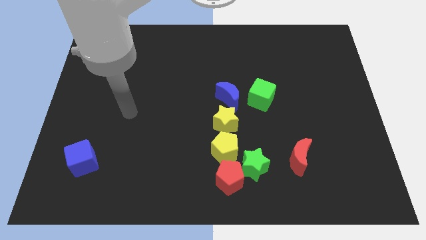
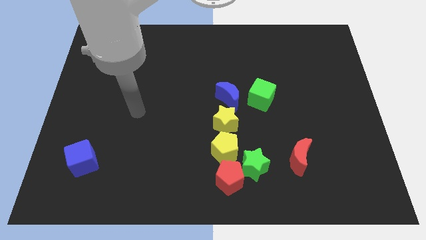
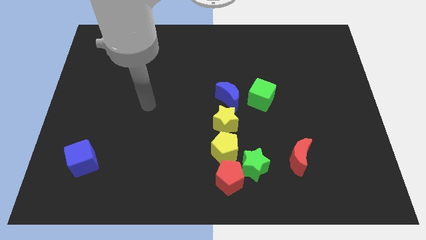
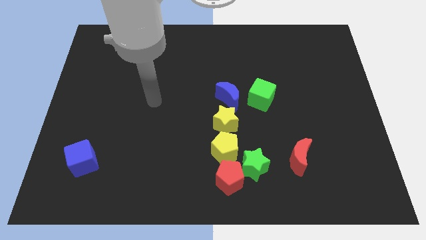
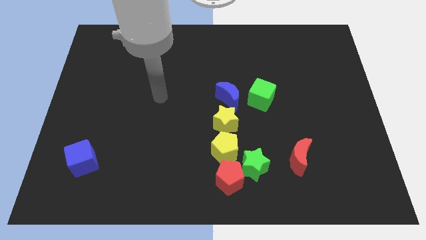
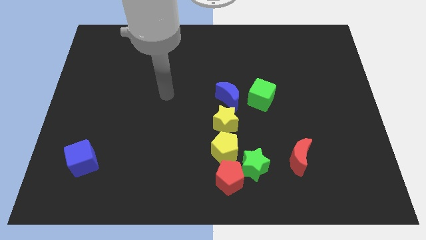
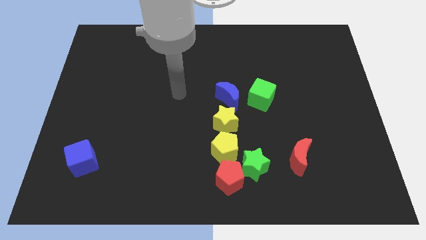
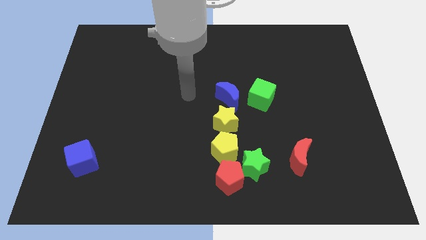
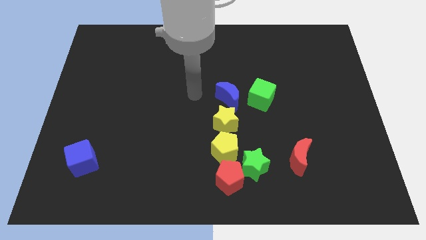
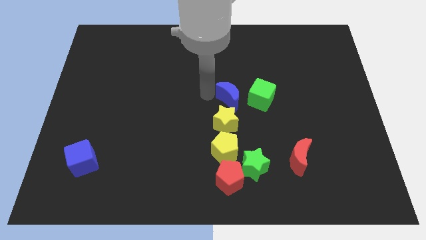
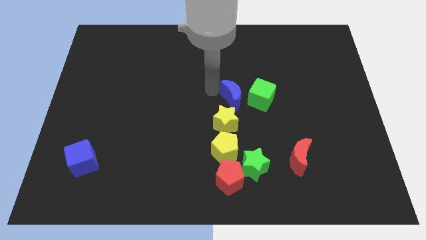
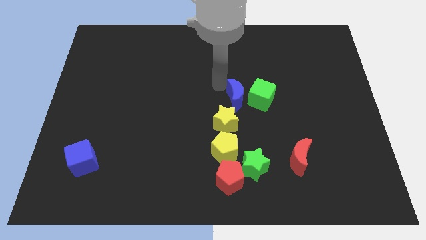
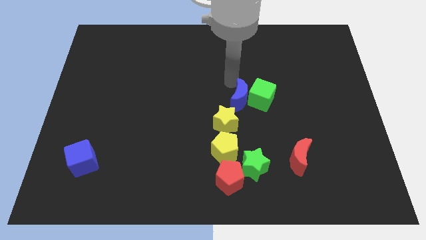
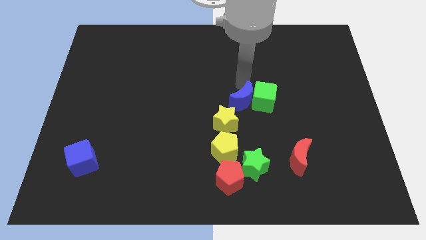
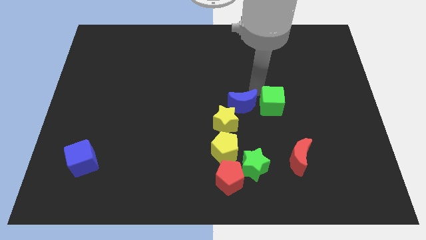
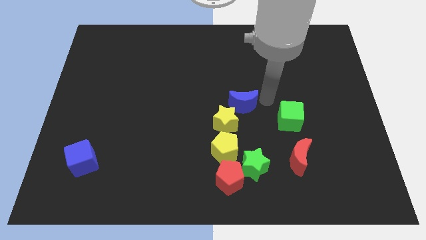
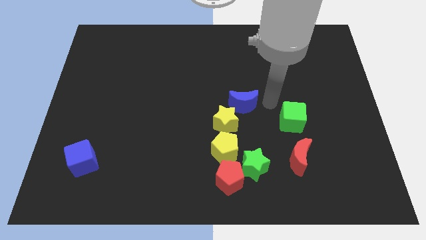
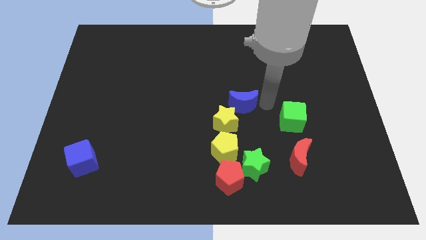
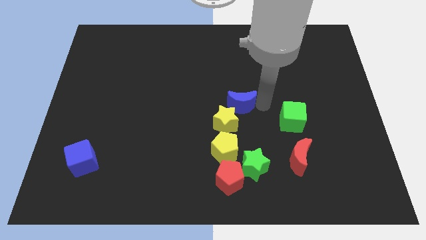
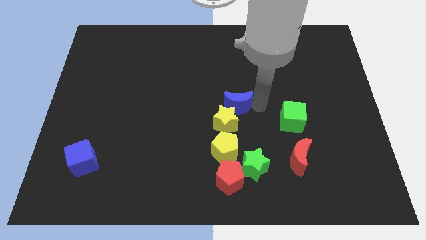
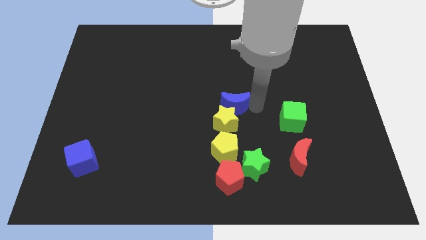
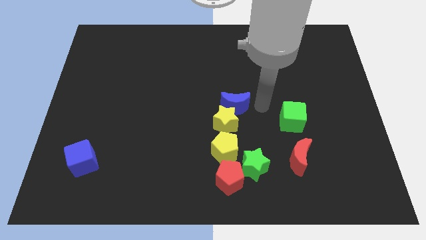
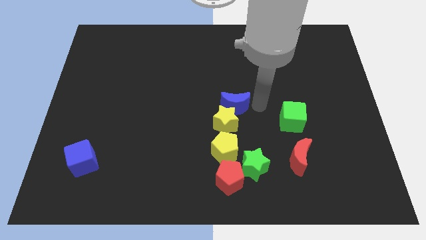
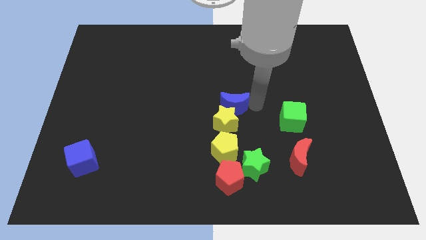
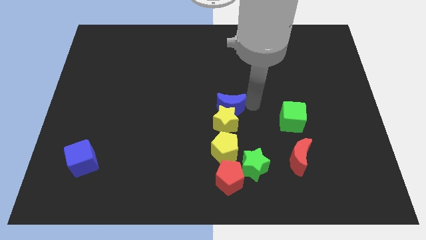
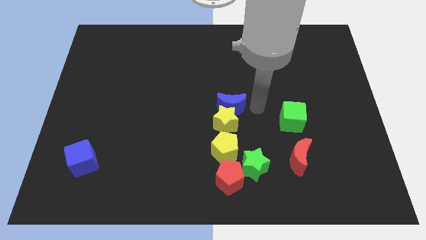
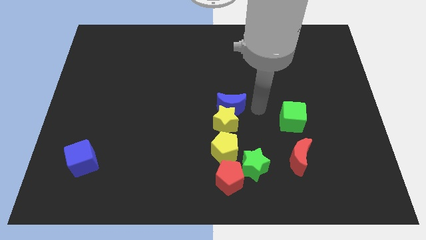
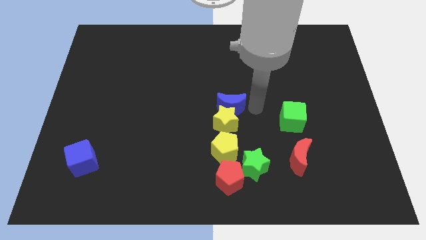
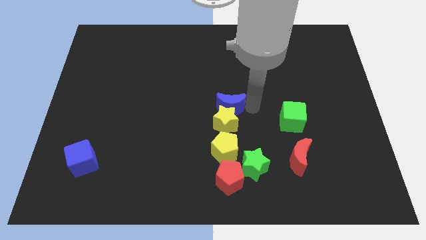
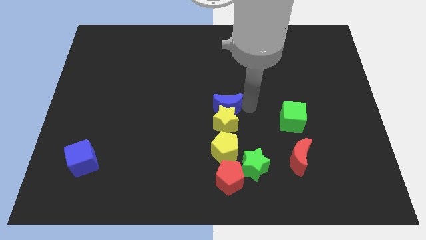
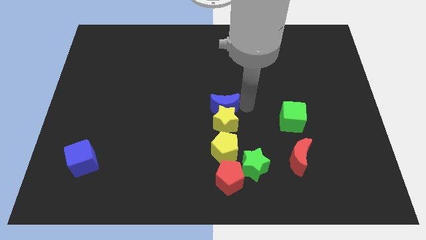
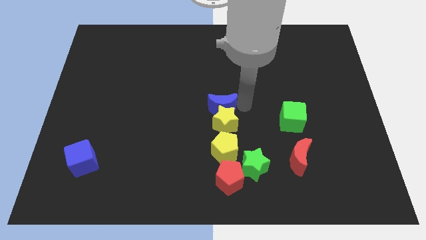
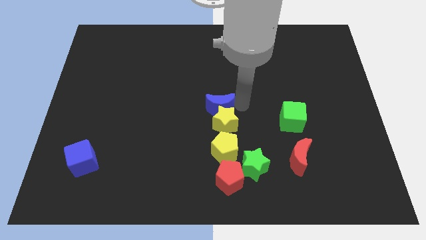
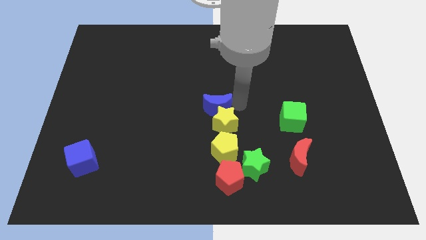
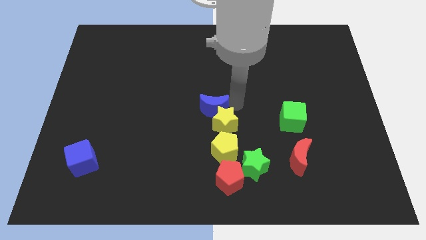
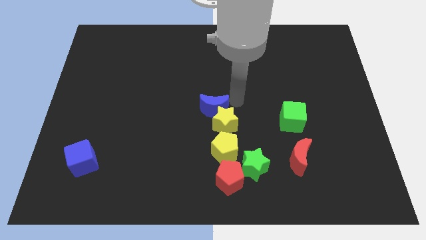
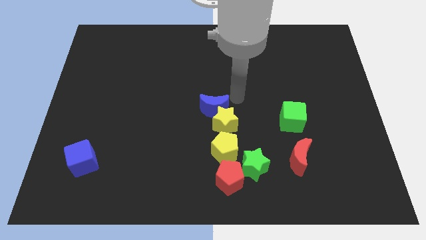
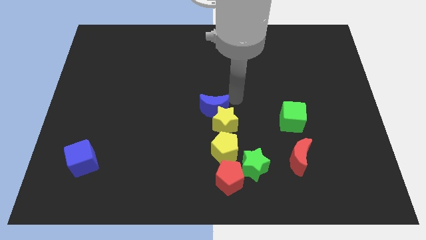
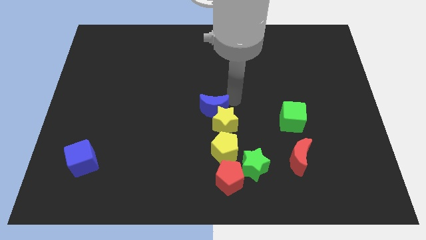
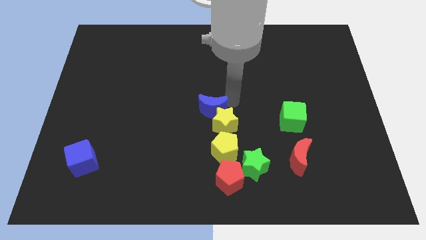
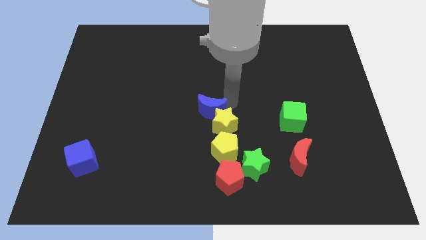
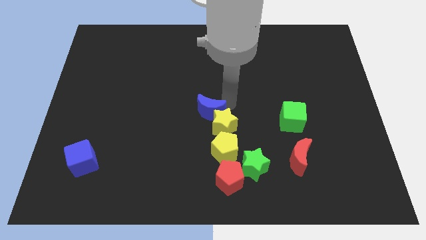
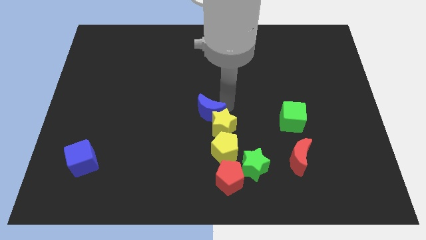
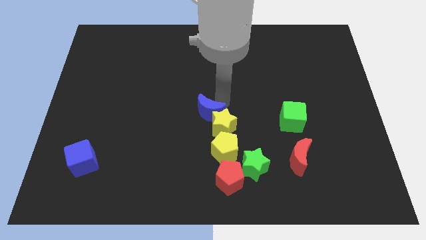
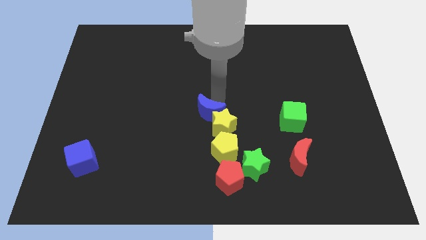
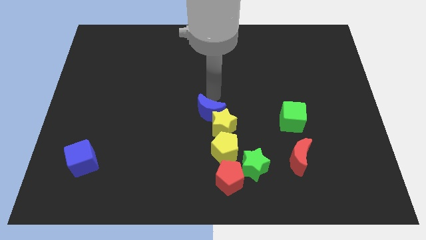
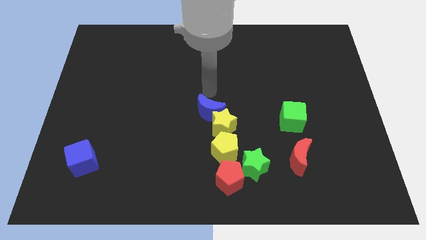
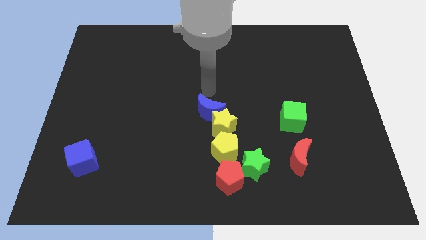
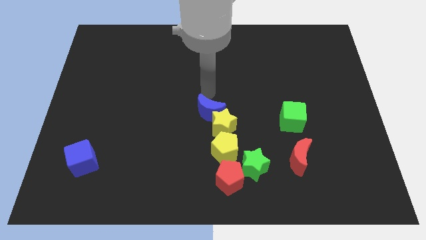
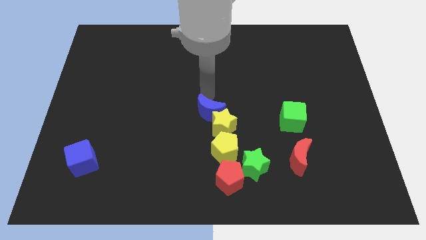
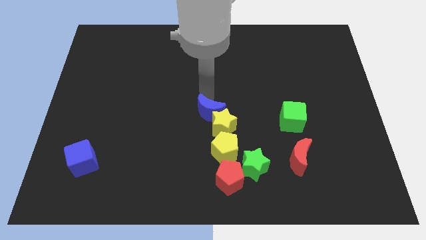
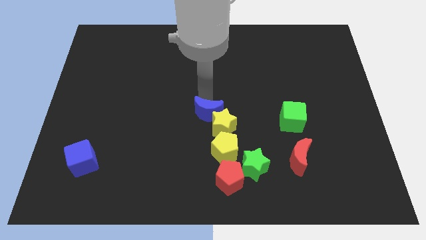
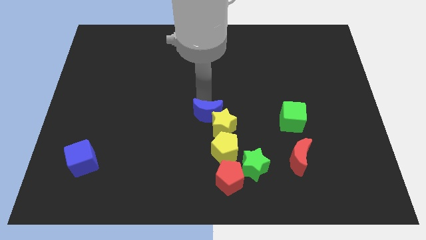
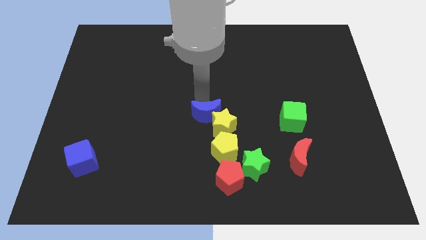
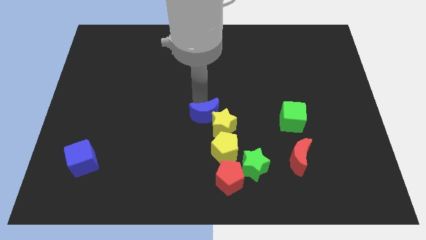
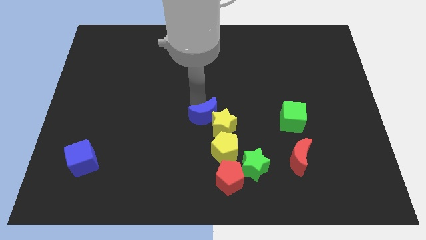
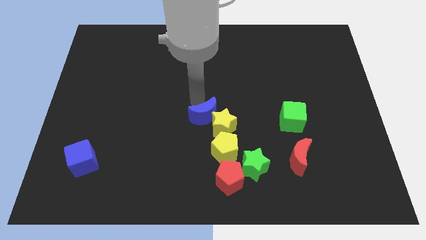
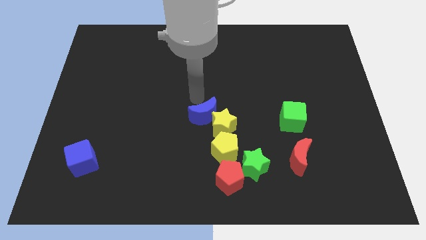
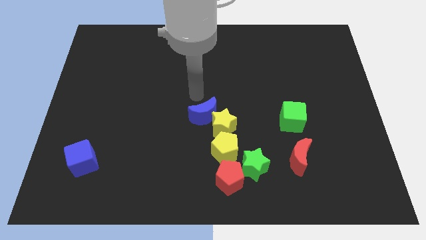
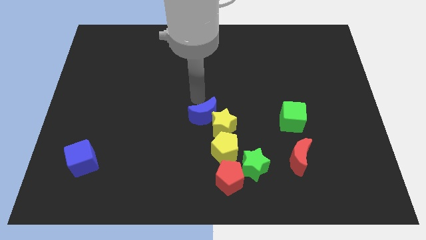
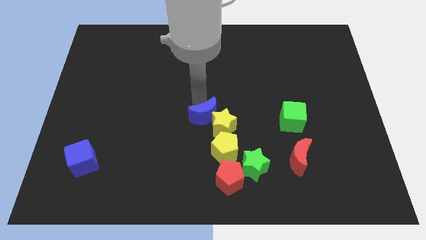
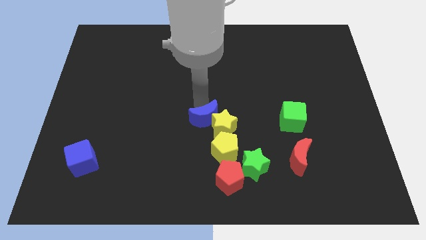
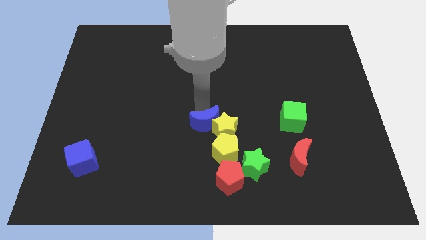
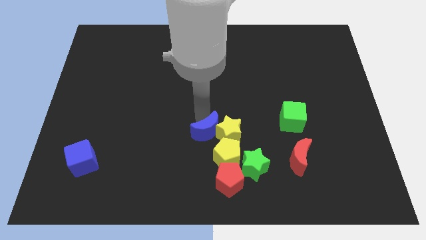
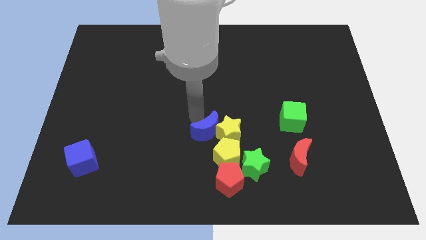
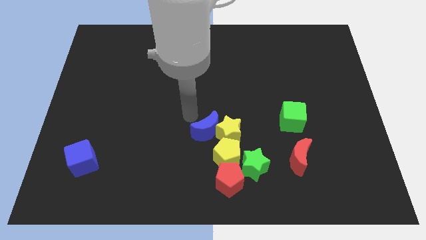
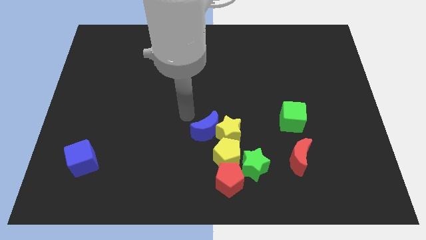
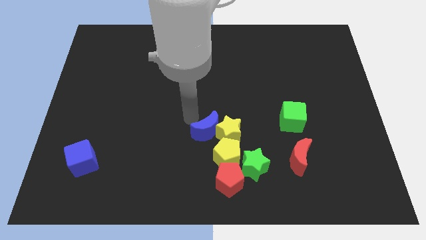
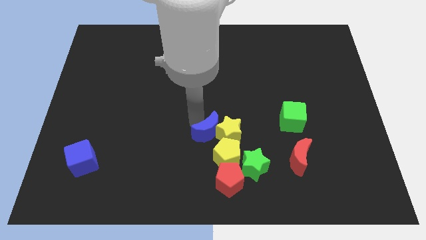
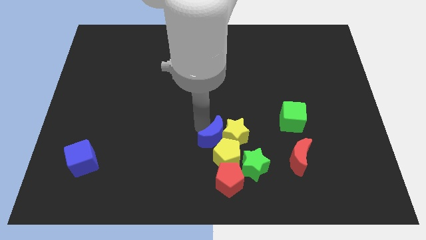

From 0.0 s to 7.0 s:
push the blue moon to the top left side of the green star

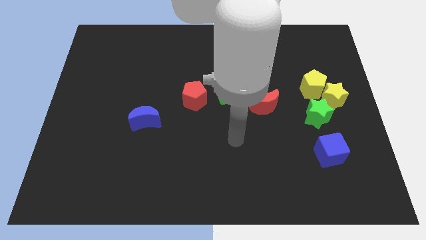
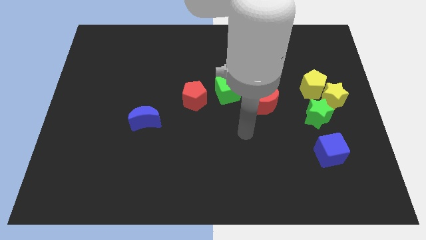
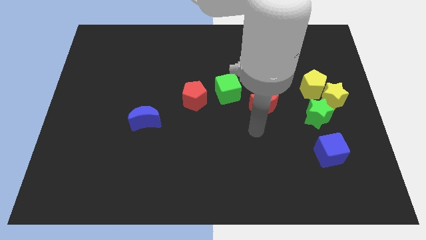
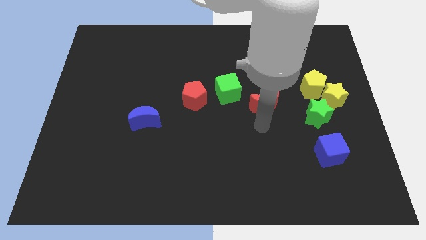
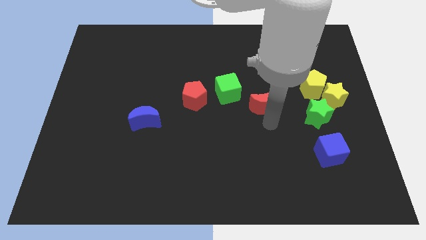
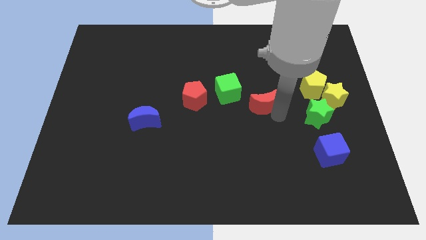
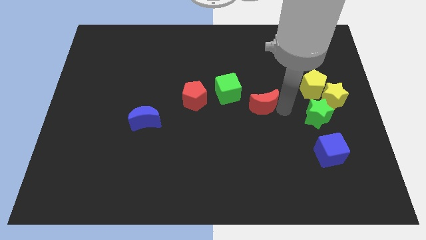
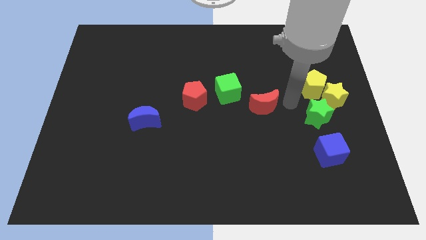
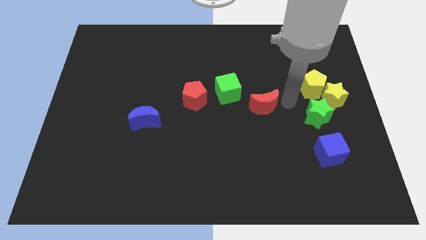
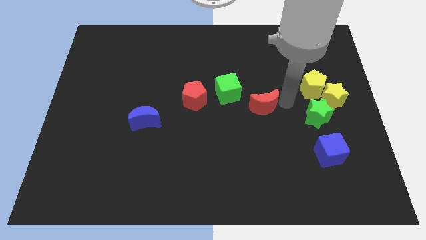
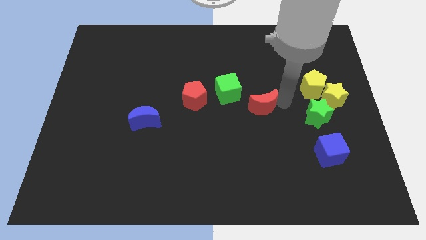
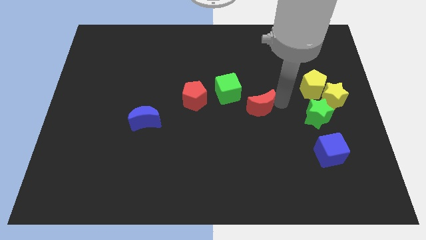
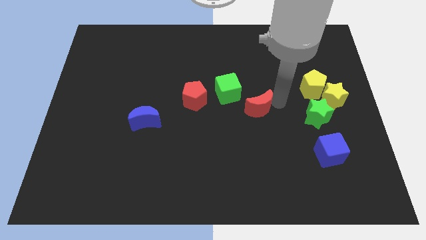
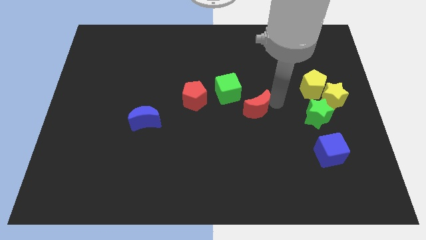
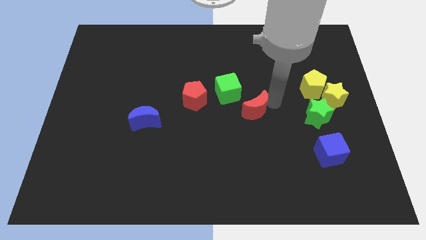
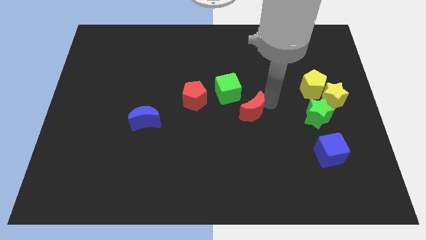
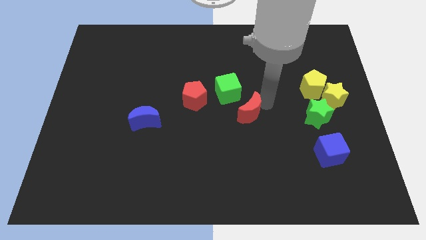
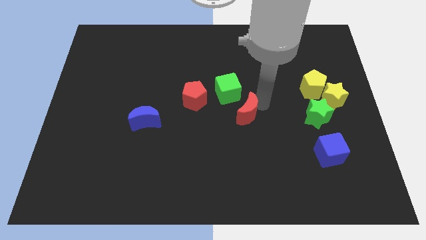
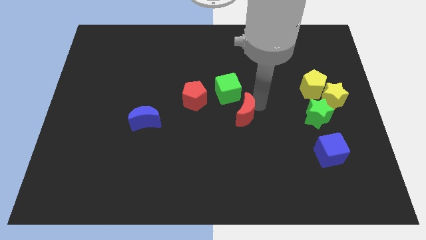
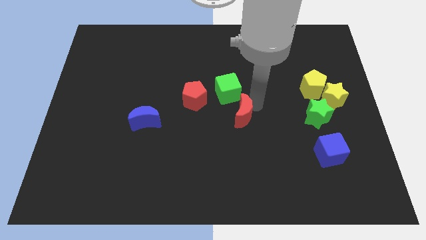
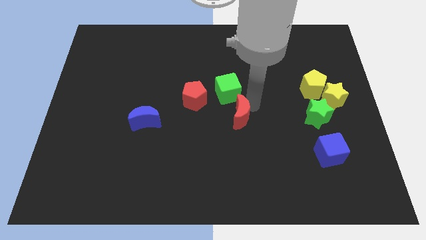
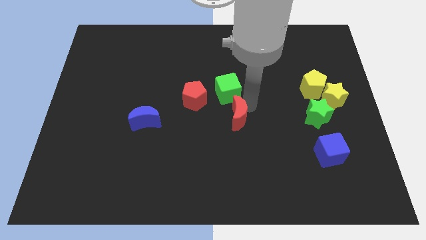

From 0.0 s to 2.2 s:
push the red moon to the bottom right of the red pentagon
